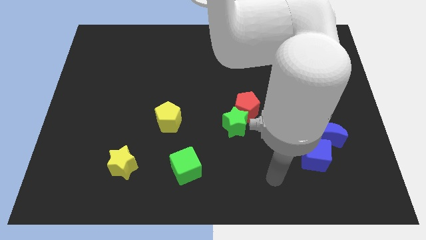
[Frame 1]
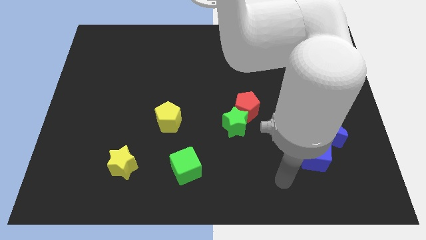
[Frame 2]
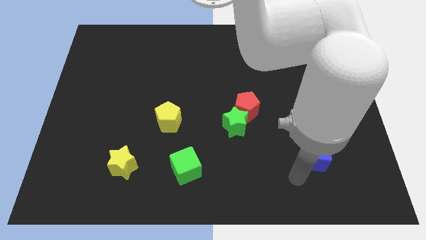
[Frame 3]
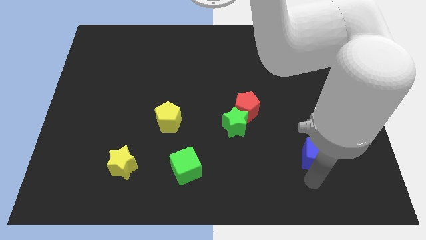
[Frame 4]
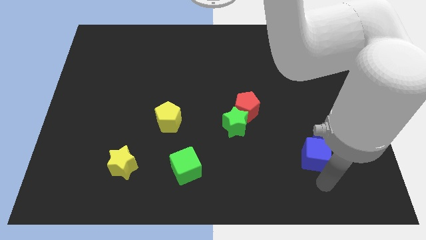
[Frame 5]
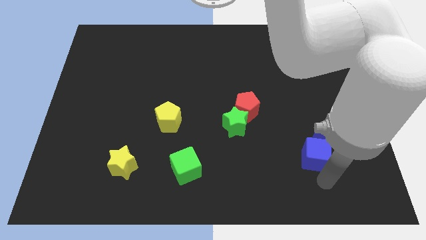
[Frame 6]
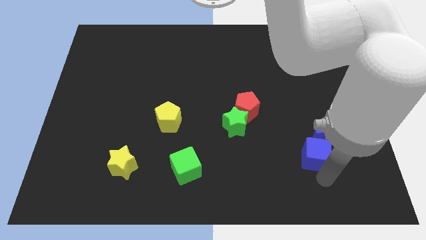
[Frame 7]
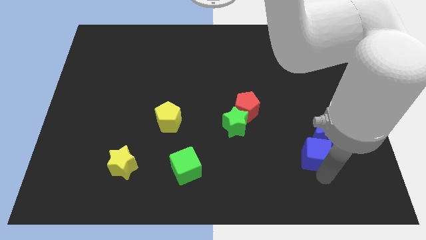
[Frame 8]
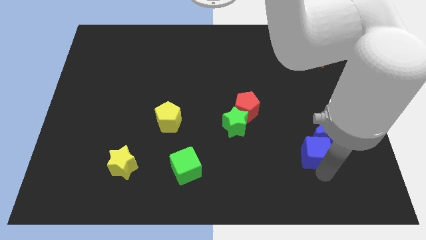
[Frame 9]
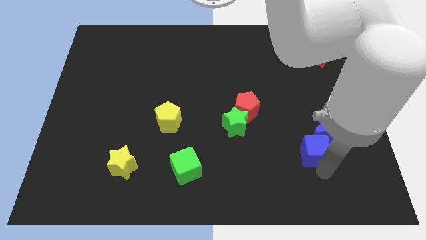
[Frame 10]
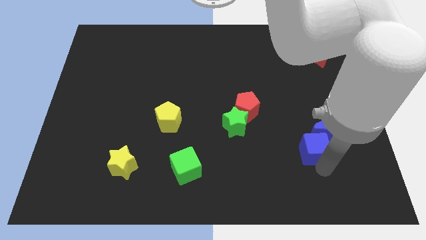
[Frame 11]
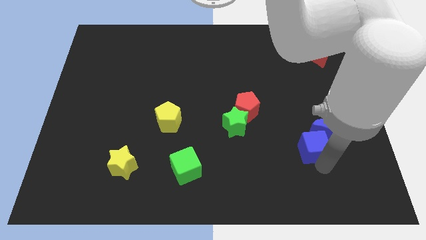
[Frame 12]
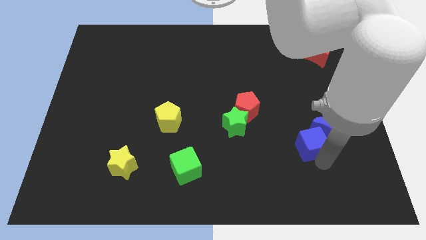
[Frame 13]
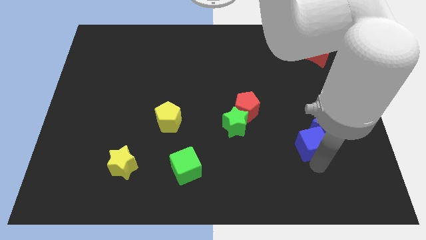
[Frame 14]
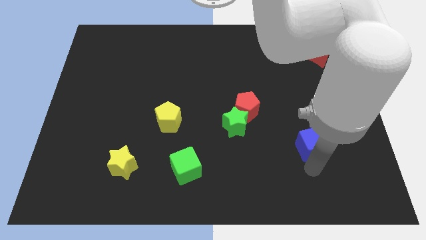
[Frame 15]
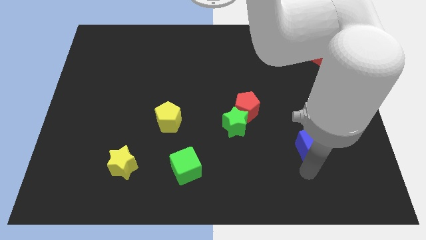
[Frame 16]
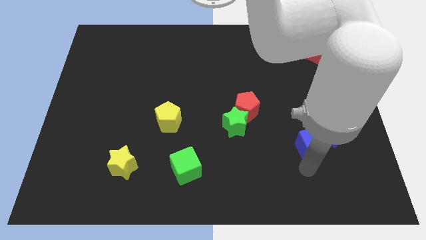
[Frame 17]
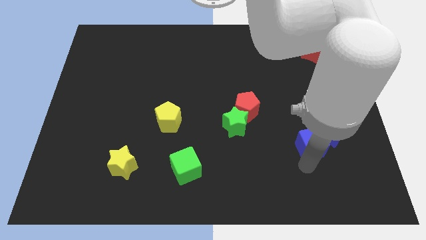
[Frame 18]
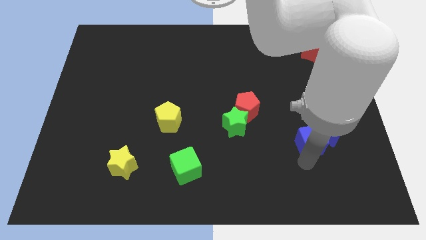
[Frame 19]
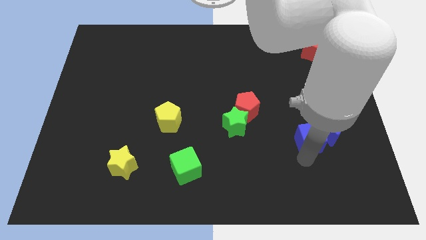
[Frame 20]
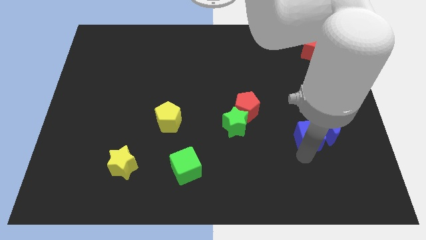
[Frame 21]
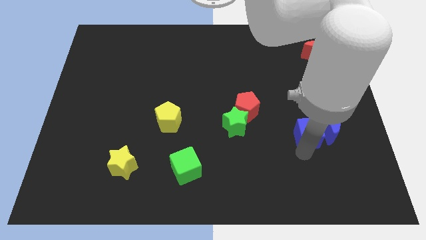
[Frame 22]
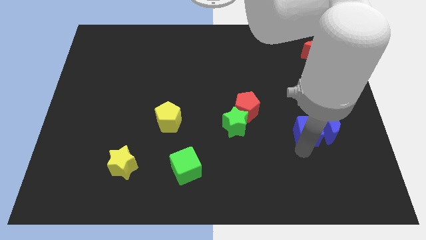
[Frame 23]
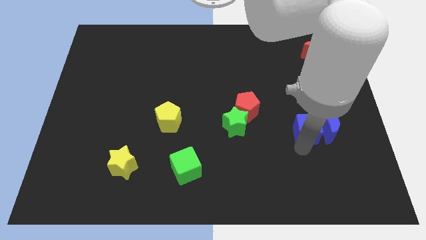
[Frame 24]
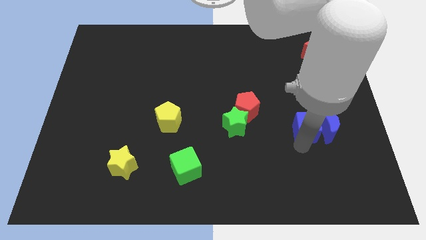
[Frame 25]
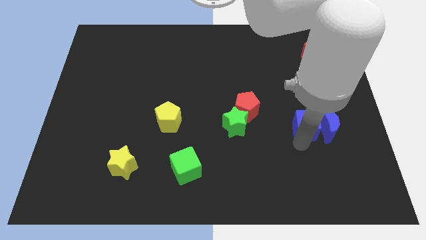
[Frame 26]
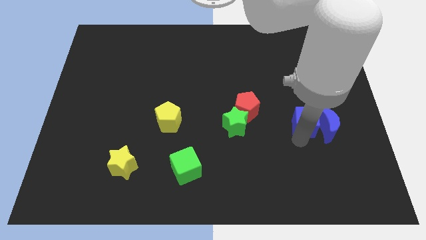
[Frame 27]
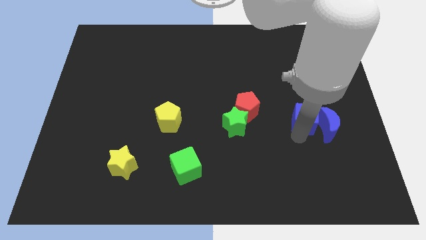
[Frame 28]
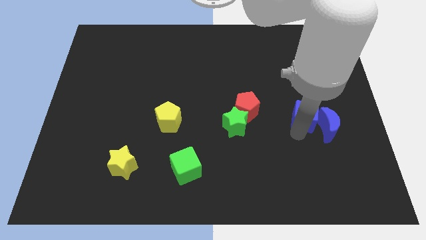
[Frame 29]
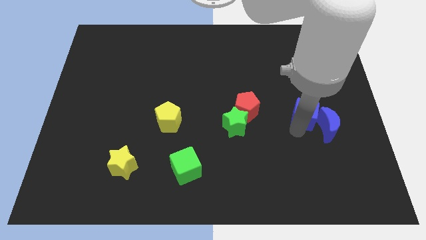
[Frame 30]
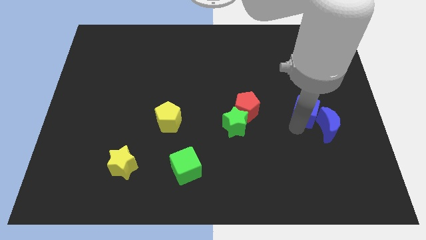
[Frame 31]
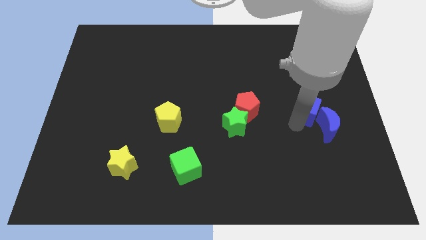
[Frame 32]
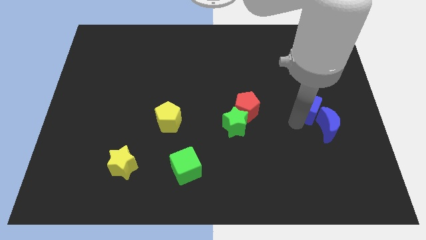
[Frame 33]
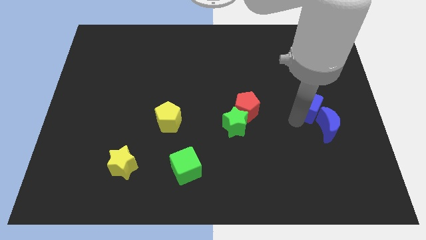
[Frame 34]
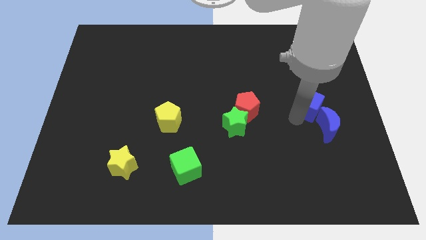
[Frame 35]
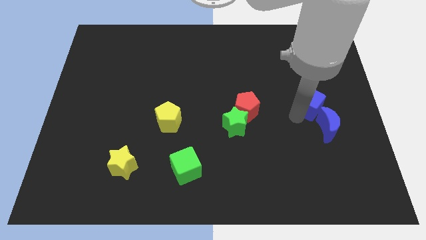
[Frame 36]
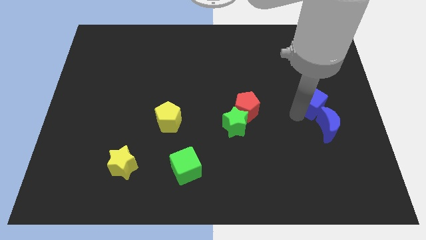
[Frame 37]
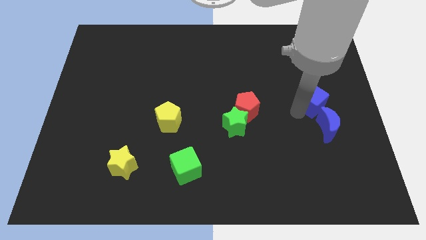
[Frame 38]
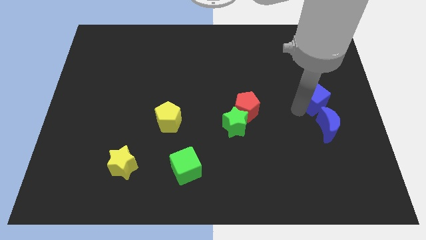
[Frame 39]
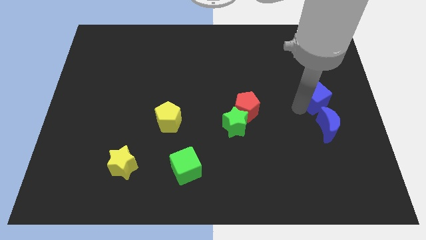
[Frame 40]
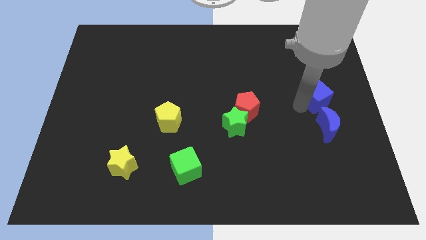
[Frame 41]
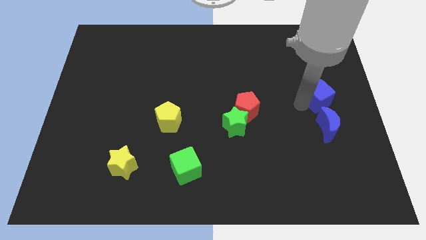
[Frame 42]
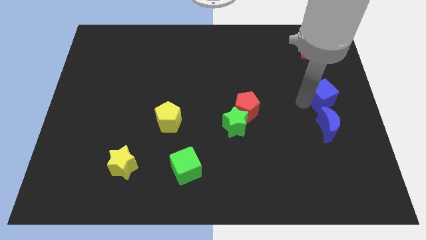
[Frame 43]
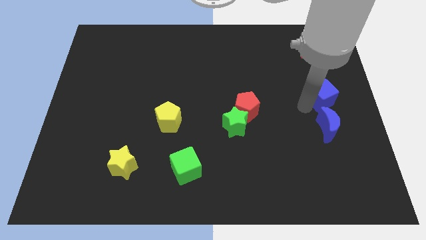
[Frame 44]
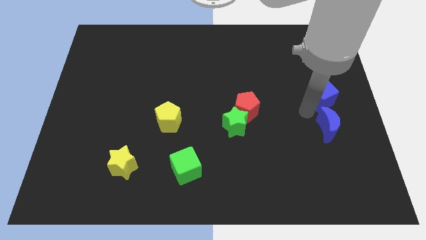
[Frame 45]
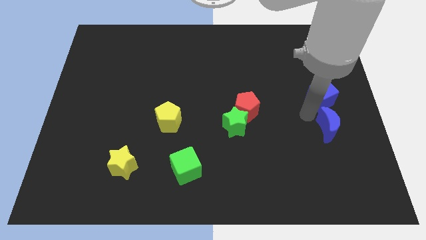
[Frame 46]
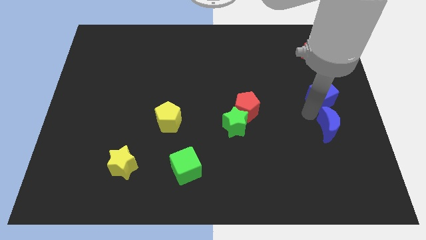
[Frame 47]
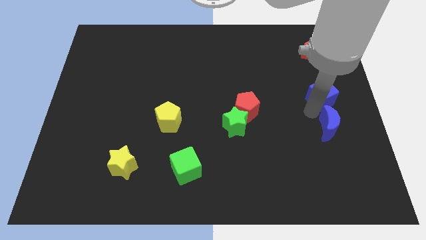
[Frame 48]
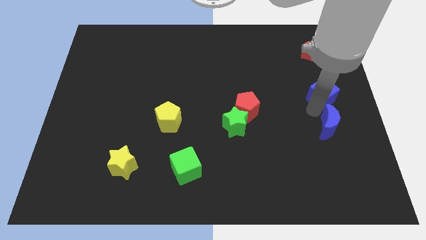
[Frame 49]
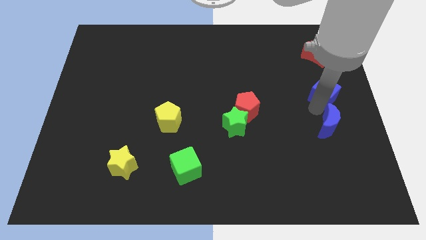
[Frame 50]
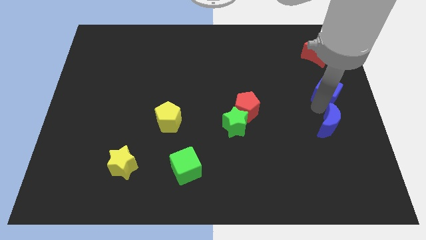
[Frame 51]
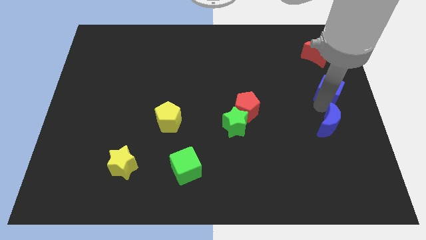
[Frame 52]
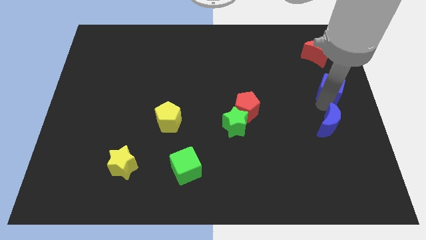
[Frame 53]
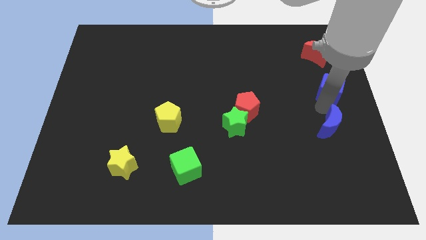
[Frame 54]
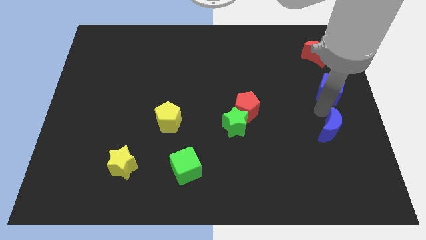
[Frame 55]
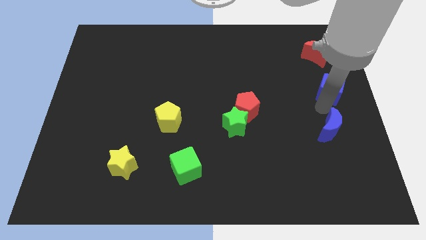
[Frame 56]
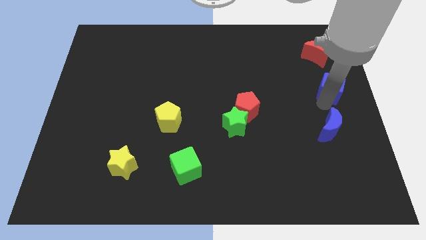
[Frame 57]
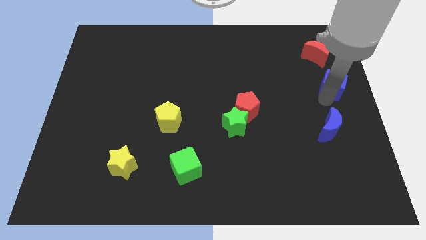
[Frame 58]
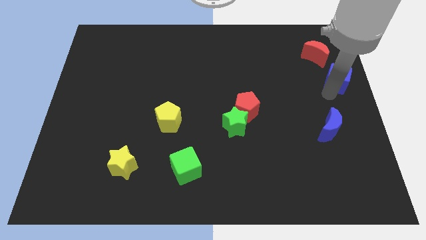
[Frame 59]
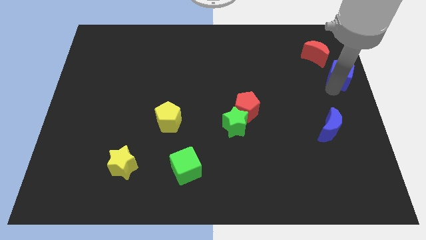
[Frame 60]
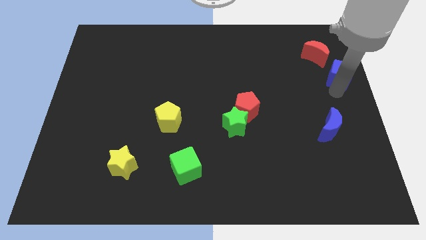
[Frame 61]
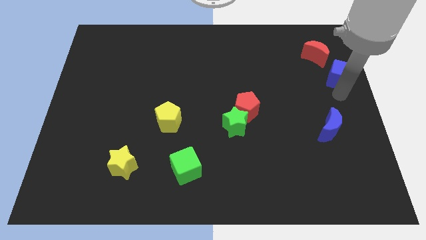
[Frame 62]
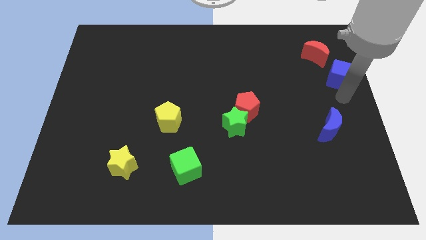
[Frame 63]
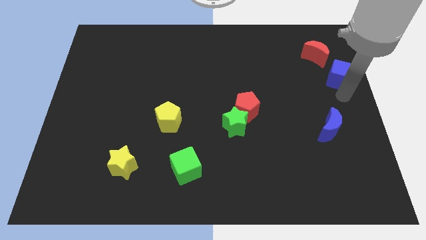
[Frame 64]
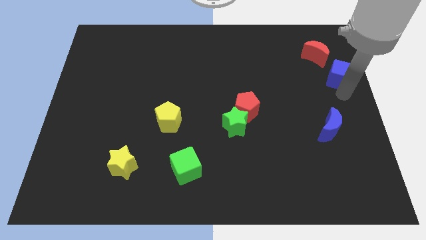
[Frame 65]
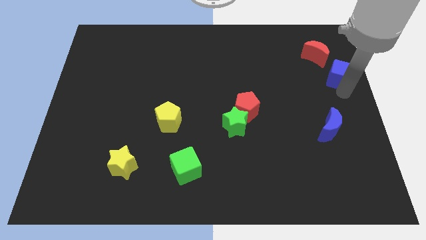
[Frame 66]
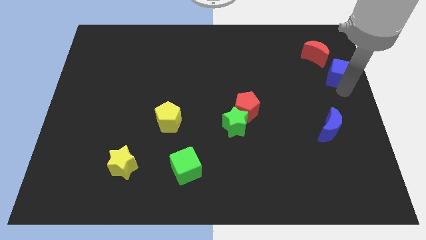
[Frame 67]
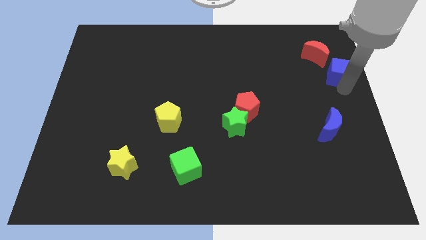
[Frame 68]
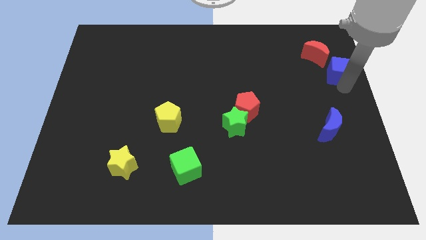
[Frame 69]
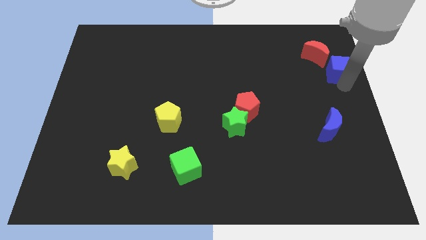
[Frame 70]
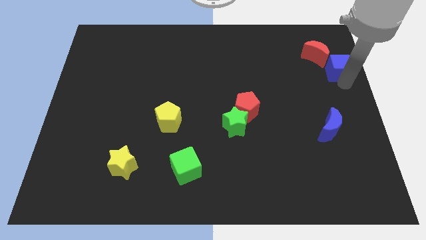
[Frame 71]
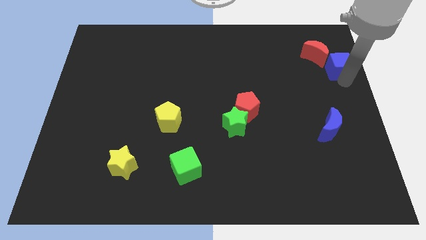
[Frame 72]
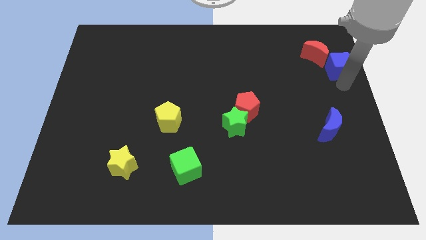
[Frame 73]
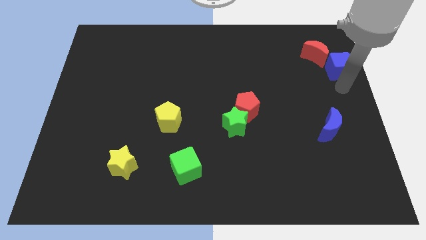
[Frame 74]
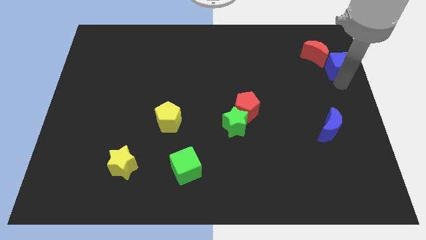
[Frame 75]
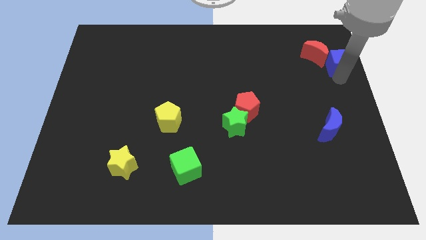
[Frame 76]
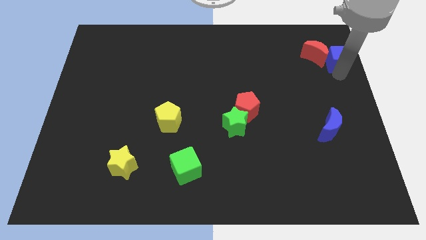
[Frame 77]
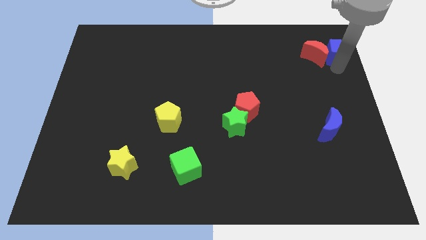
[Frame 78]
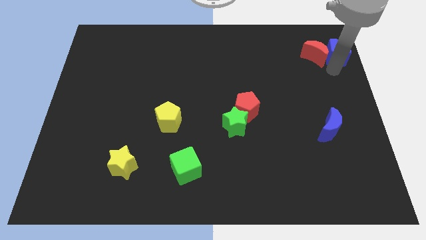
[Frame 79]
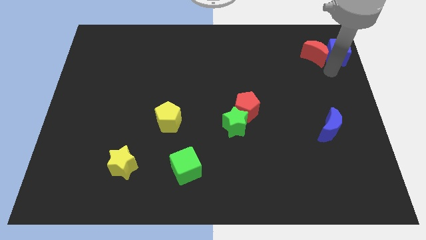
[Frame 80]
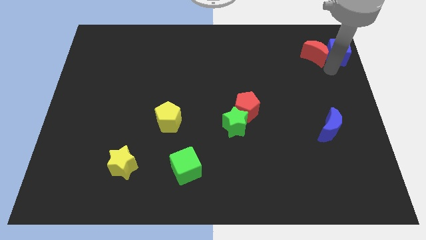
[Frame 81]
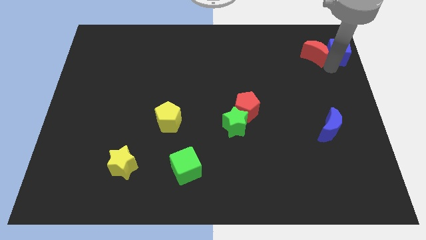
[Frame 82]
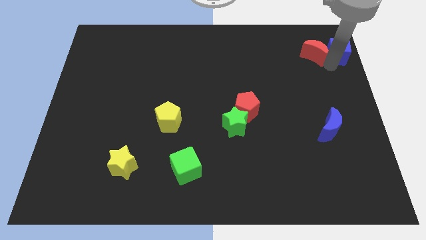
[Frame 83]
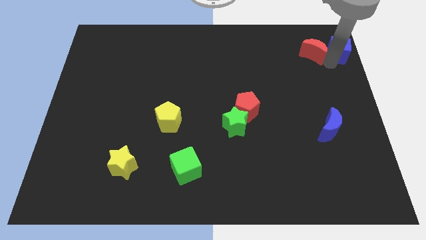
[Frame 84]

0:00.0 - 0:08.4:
put the blue cube to the top right of the board
